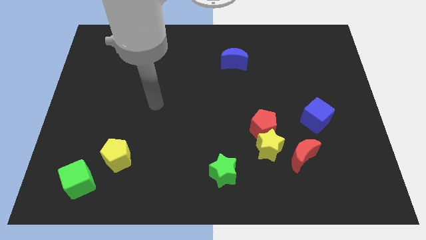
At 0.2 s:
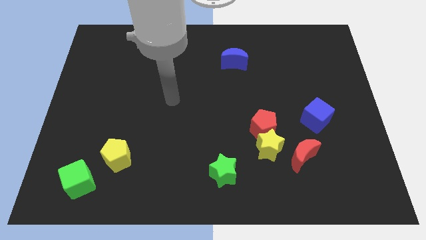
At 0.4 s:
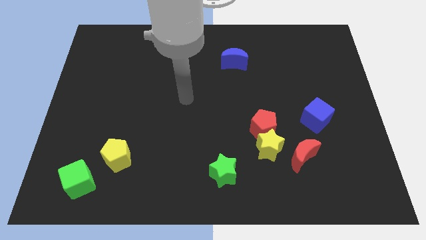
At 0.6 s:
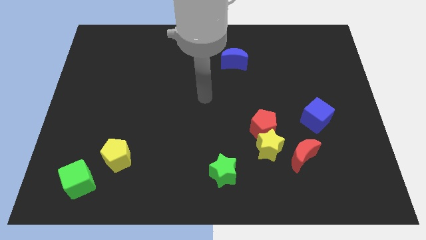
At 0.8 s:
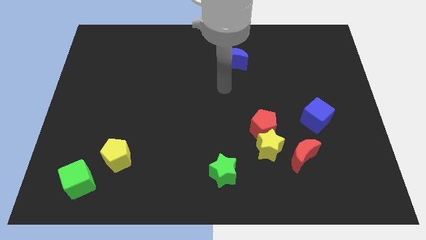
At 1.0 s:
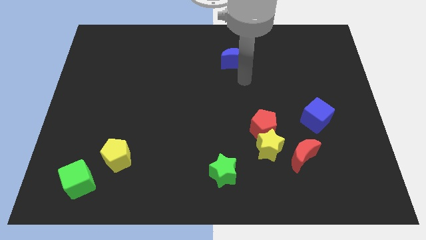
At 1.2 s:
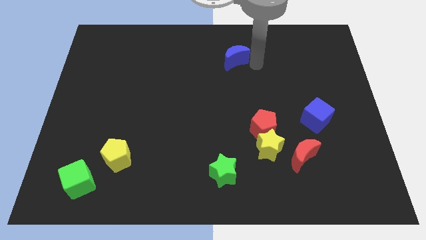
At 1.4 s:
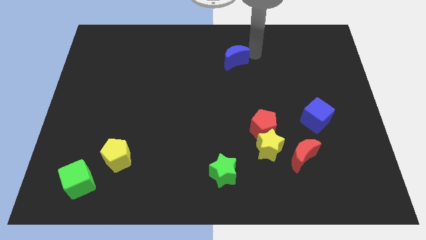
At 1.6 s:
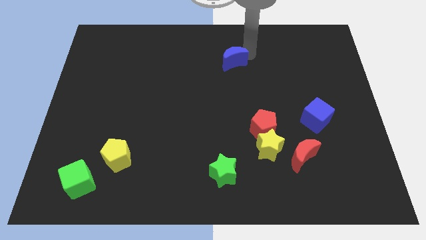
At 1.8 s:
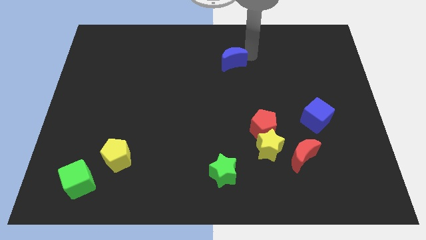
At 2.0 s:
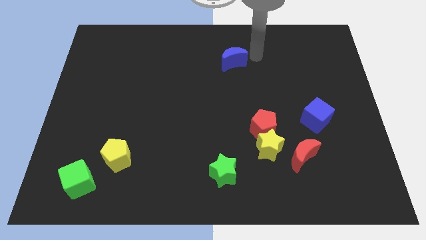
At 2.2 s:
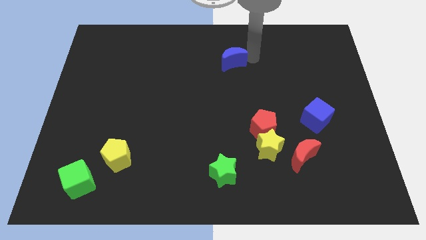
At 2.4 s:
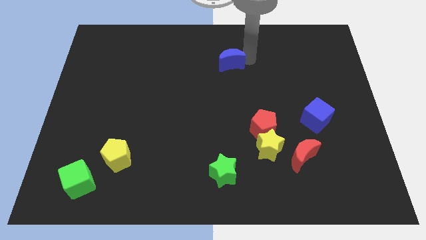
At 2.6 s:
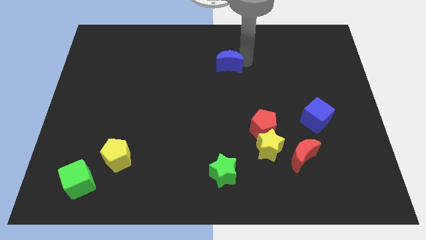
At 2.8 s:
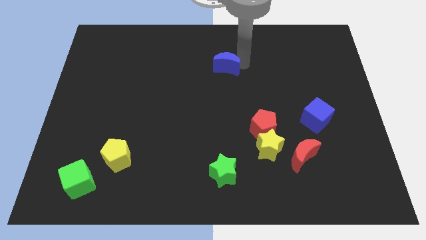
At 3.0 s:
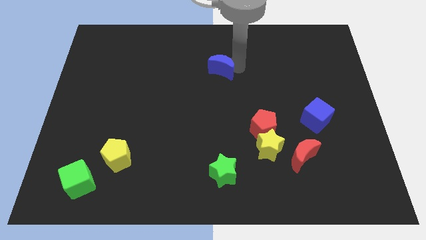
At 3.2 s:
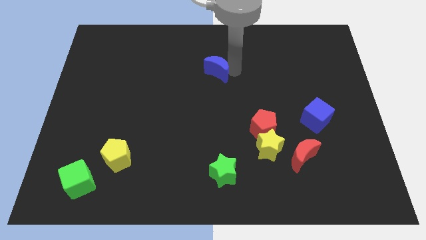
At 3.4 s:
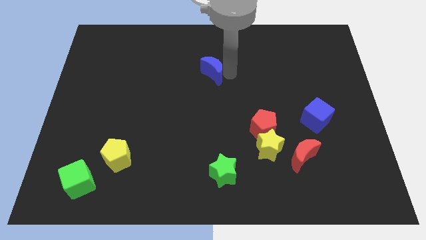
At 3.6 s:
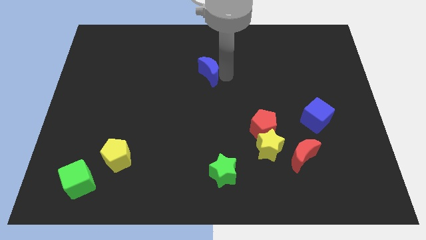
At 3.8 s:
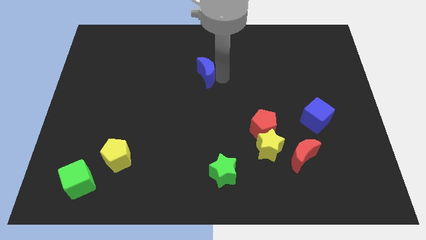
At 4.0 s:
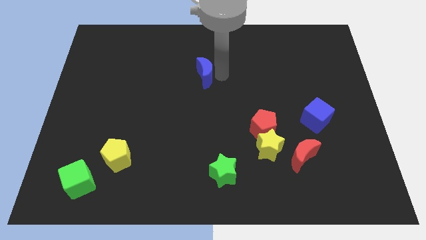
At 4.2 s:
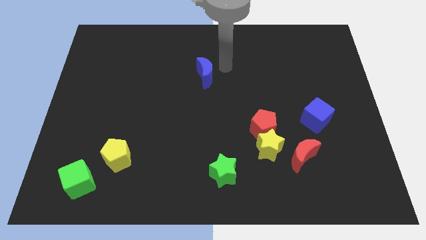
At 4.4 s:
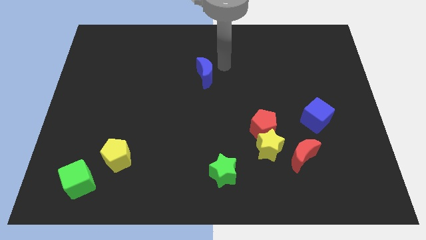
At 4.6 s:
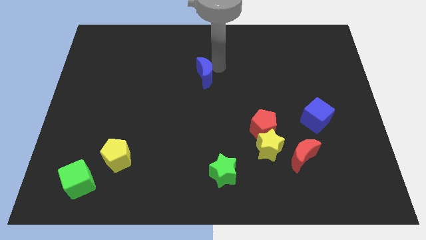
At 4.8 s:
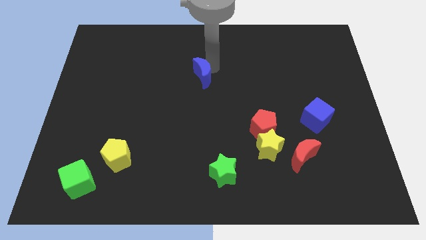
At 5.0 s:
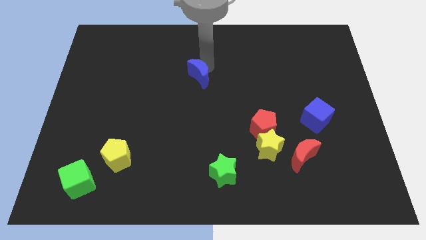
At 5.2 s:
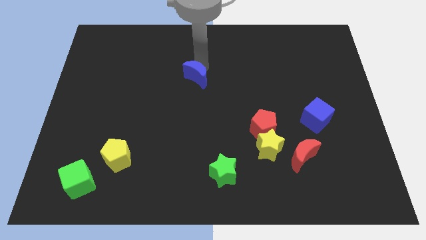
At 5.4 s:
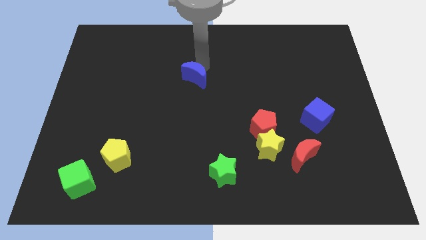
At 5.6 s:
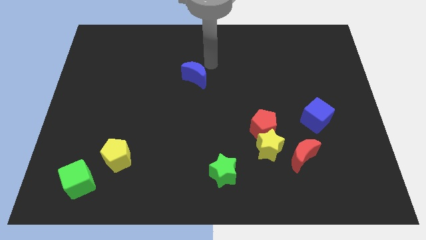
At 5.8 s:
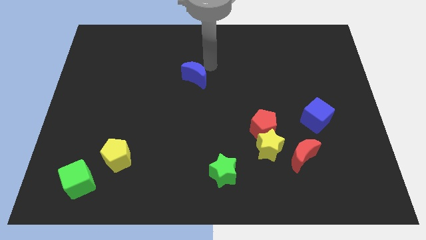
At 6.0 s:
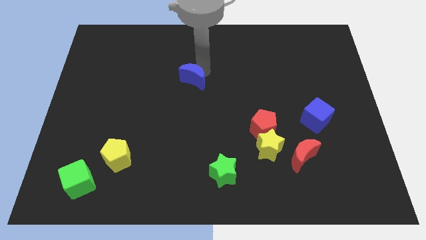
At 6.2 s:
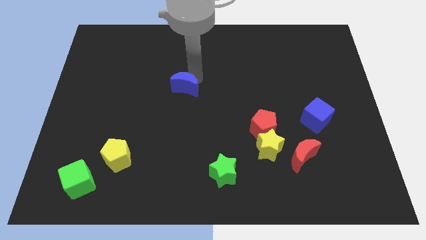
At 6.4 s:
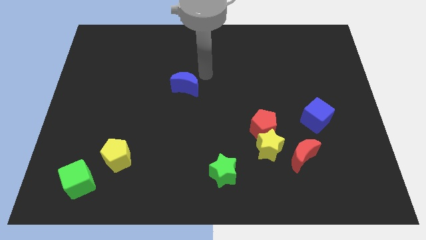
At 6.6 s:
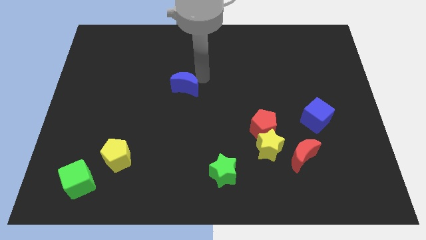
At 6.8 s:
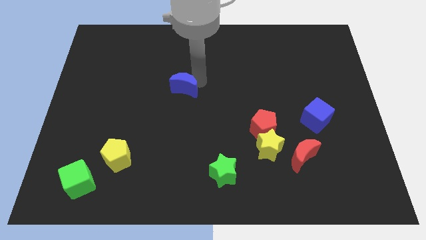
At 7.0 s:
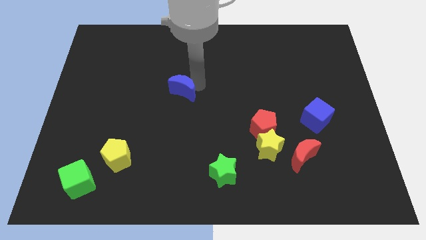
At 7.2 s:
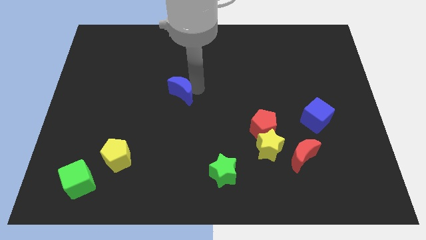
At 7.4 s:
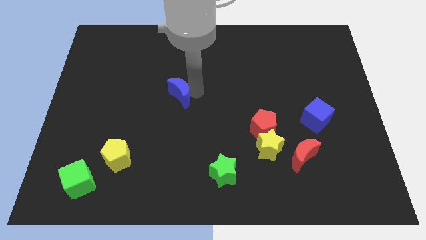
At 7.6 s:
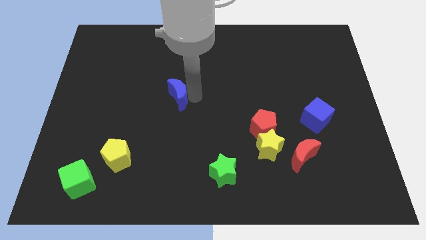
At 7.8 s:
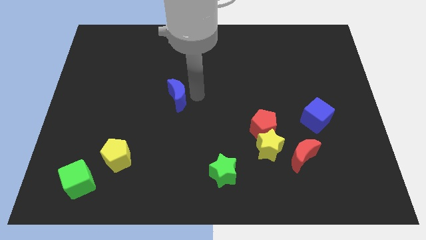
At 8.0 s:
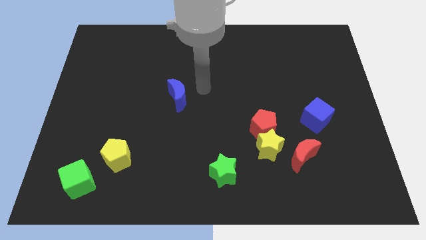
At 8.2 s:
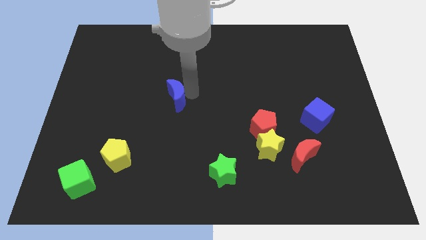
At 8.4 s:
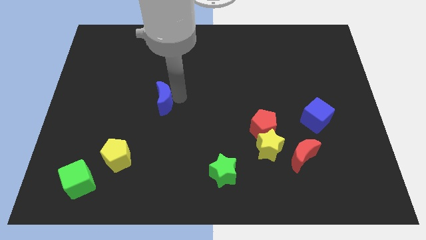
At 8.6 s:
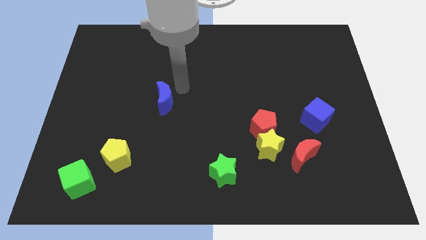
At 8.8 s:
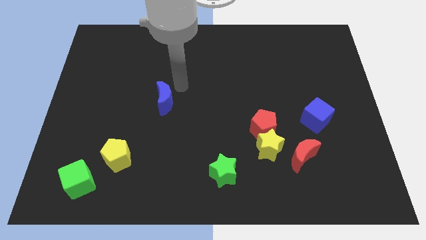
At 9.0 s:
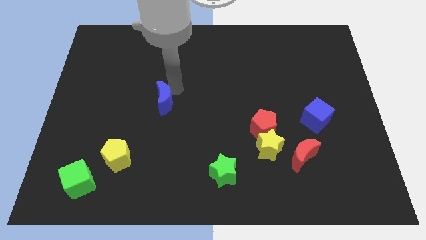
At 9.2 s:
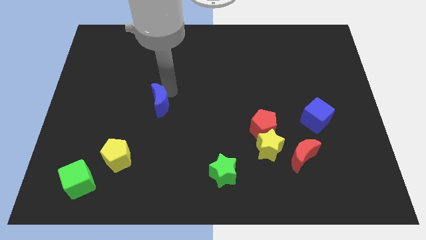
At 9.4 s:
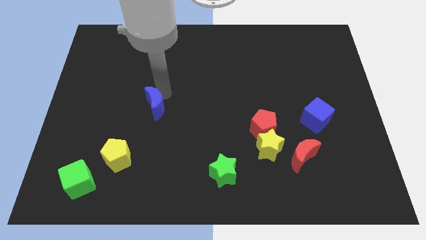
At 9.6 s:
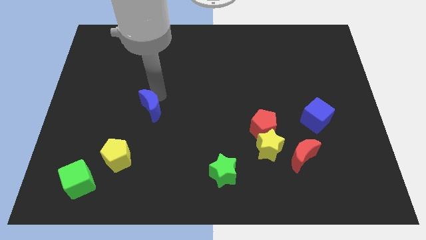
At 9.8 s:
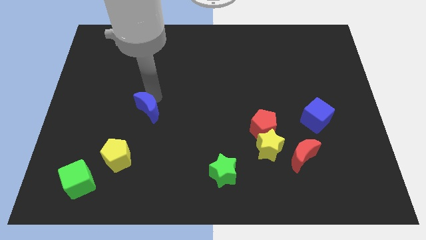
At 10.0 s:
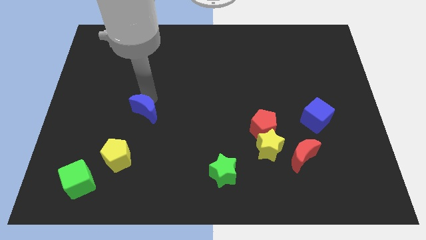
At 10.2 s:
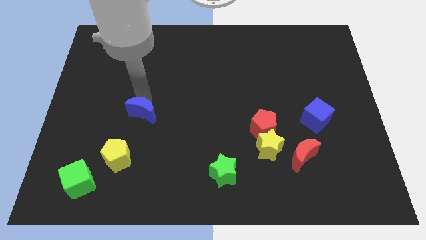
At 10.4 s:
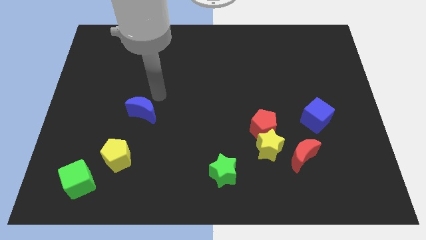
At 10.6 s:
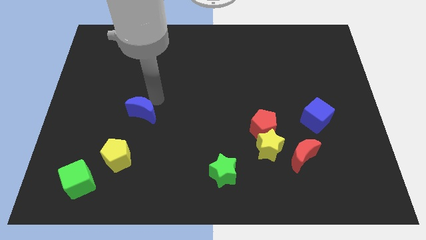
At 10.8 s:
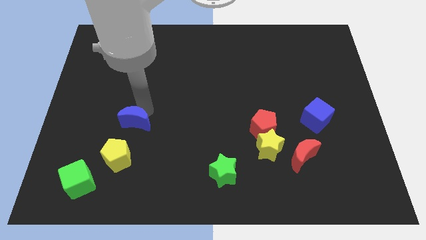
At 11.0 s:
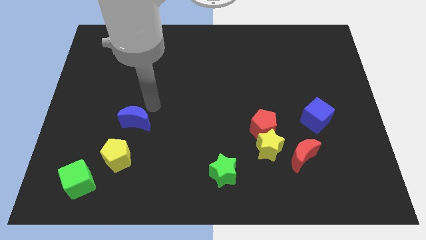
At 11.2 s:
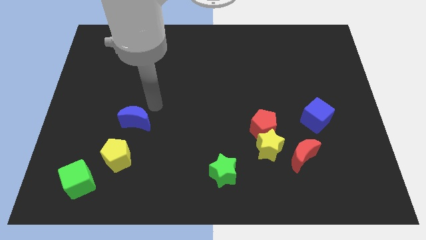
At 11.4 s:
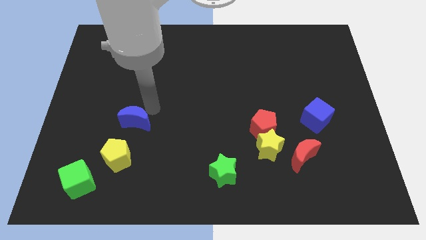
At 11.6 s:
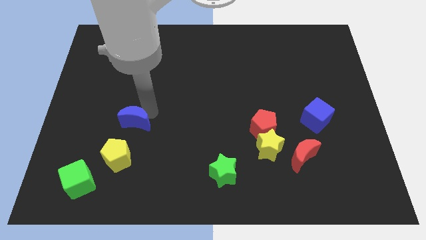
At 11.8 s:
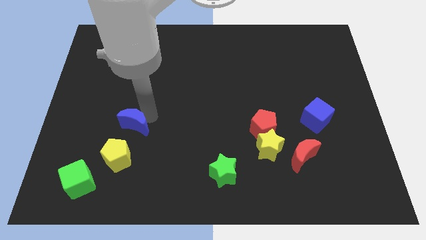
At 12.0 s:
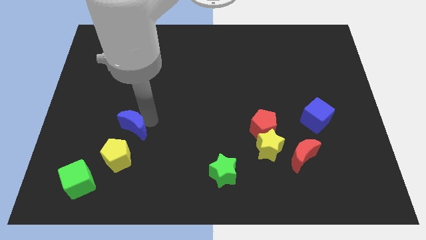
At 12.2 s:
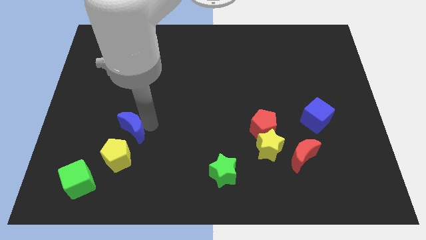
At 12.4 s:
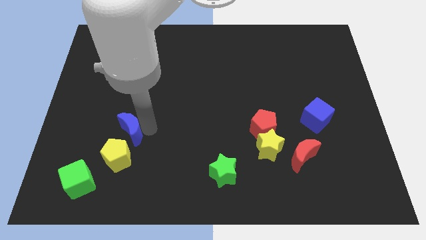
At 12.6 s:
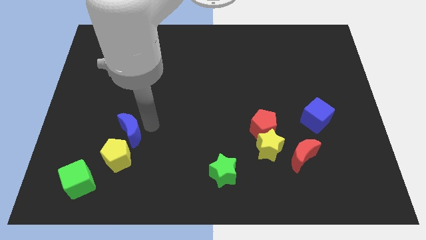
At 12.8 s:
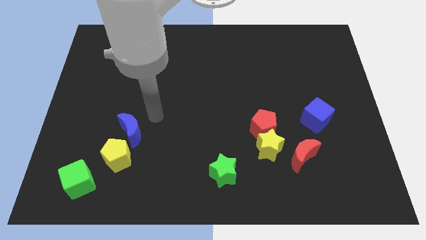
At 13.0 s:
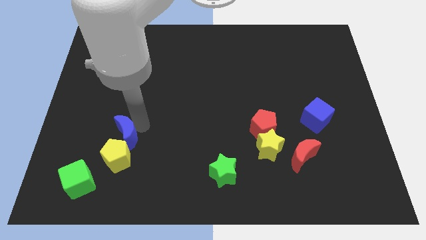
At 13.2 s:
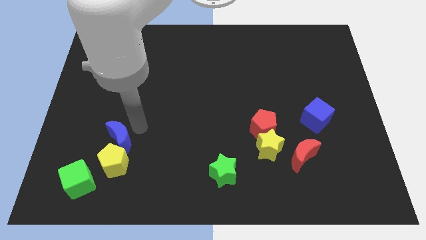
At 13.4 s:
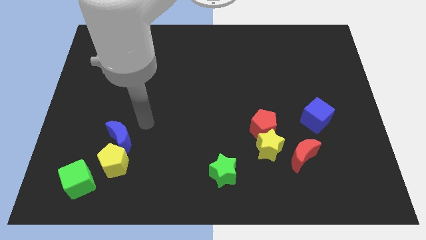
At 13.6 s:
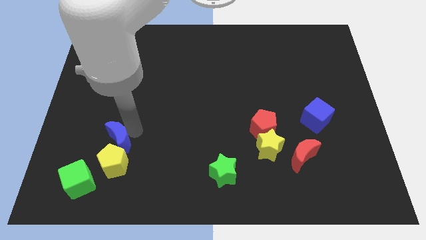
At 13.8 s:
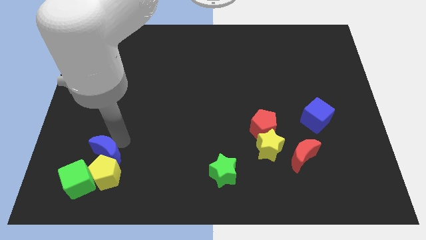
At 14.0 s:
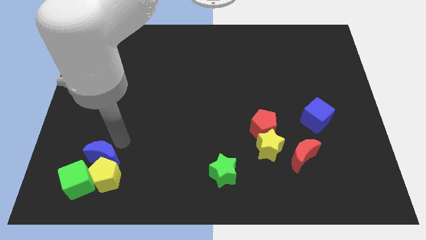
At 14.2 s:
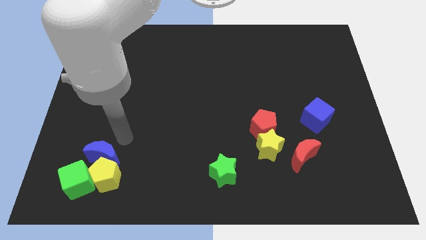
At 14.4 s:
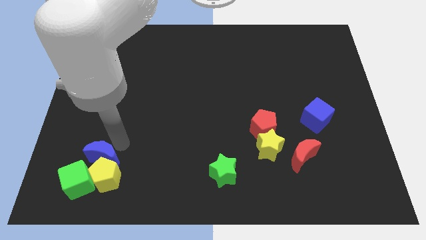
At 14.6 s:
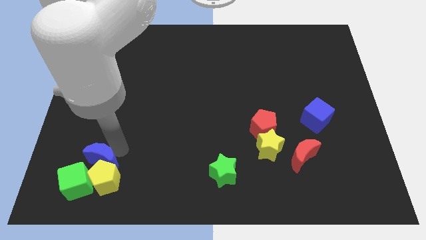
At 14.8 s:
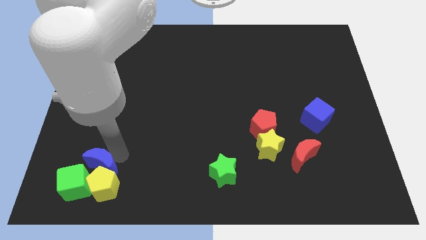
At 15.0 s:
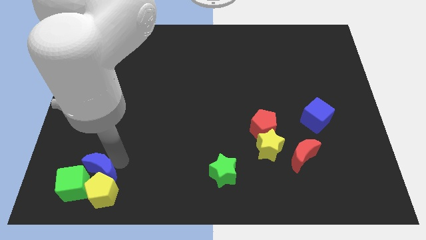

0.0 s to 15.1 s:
put the blue moon to the green cube
